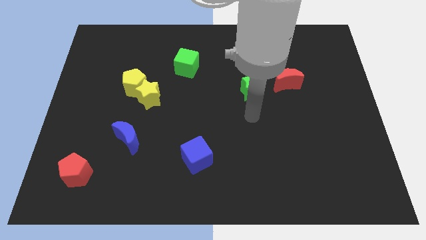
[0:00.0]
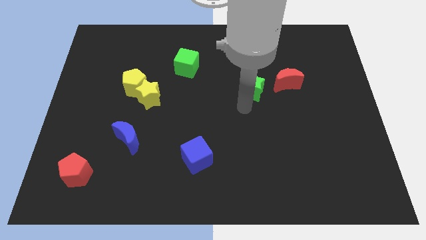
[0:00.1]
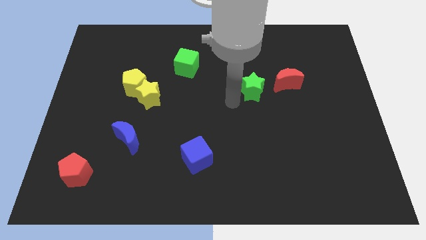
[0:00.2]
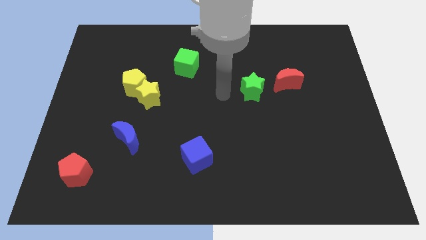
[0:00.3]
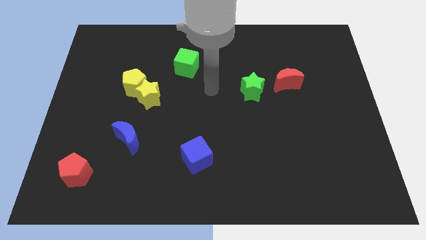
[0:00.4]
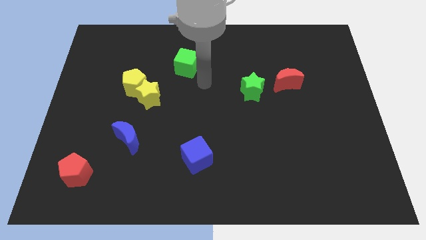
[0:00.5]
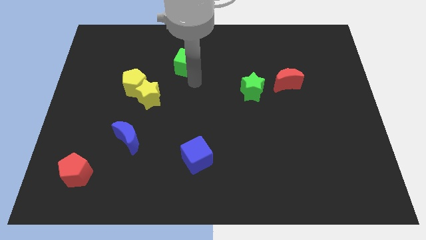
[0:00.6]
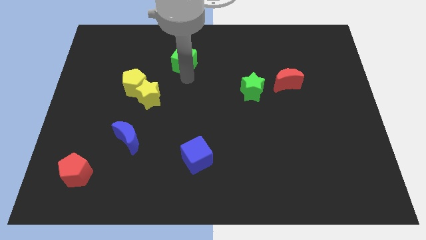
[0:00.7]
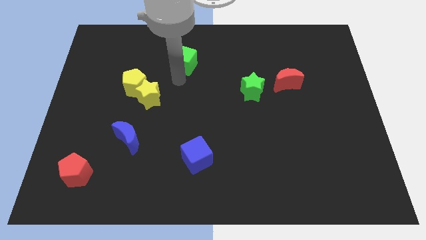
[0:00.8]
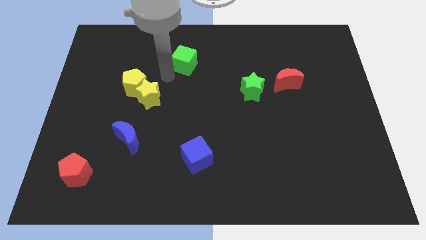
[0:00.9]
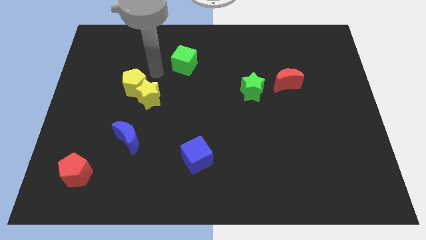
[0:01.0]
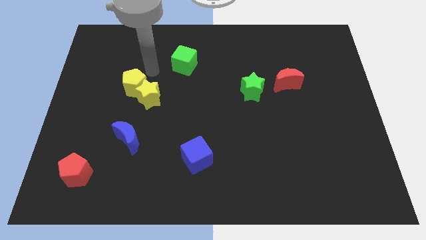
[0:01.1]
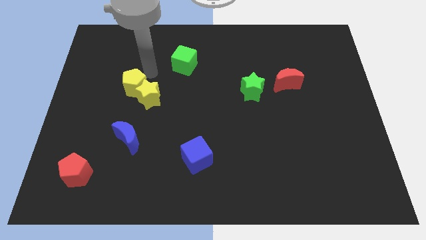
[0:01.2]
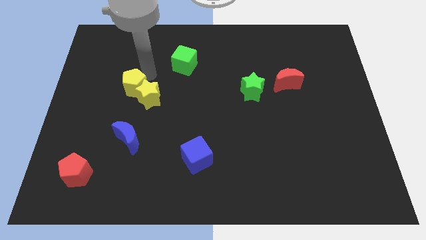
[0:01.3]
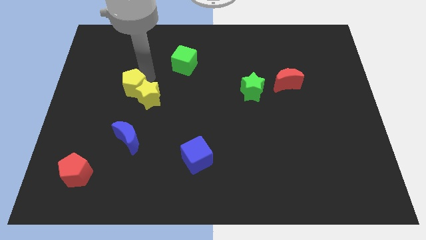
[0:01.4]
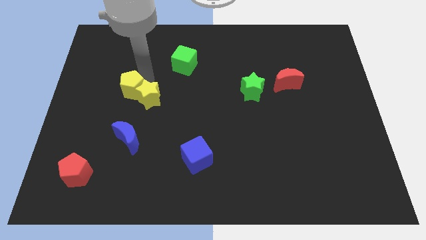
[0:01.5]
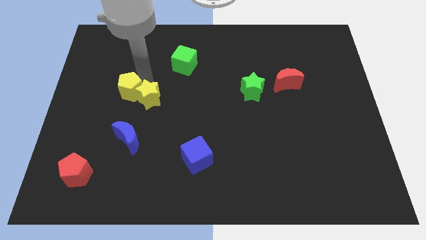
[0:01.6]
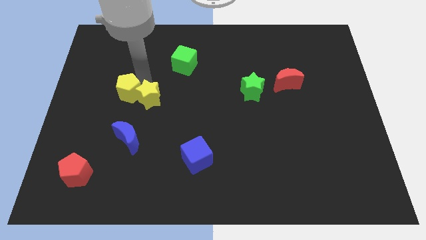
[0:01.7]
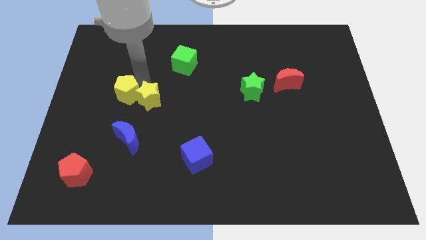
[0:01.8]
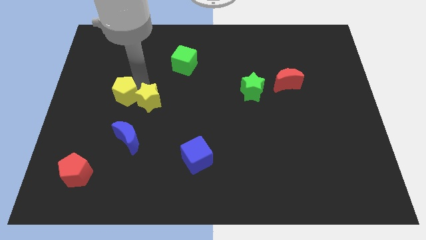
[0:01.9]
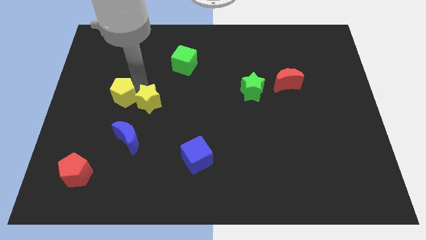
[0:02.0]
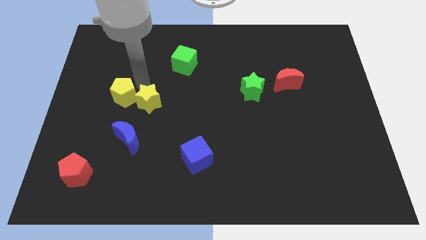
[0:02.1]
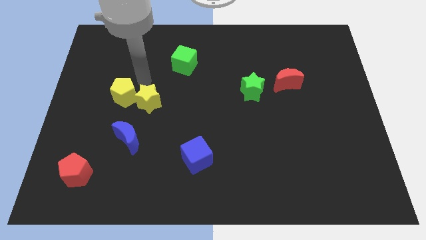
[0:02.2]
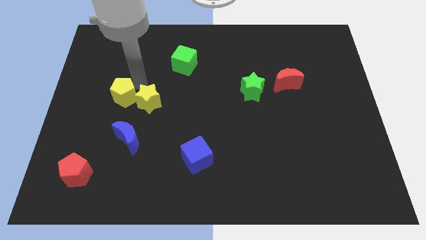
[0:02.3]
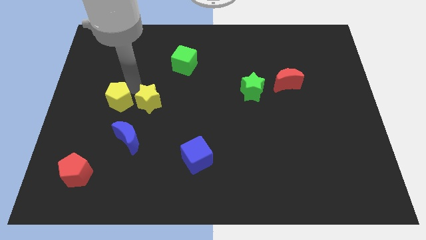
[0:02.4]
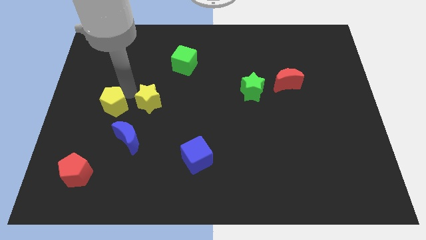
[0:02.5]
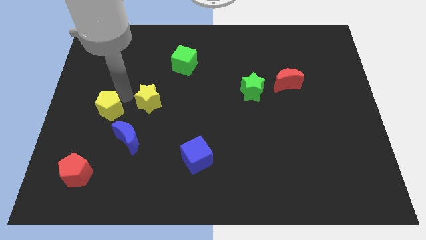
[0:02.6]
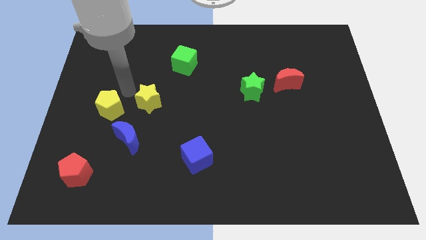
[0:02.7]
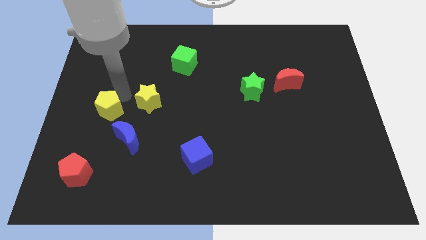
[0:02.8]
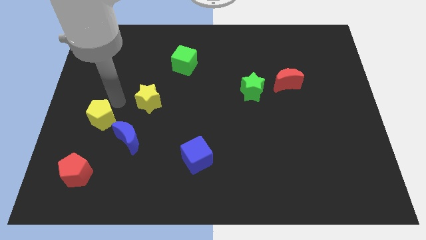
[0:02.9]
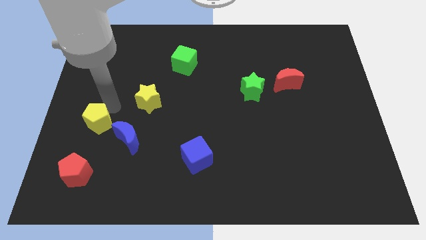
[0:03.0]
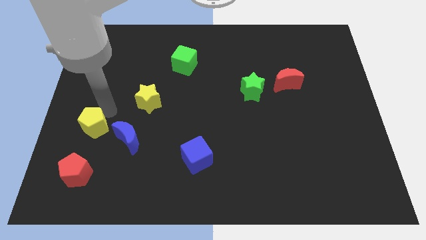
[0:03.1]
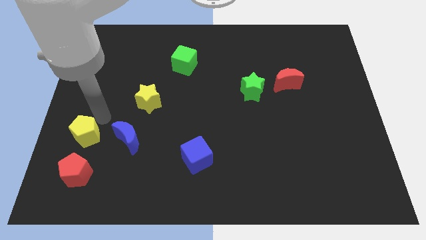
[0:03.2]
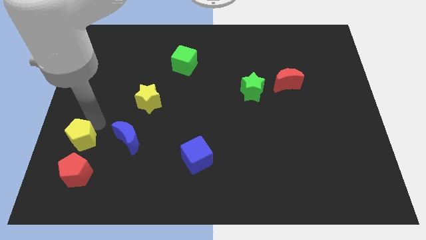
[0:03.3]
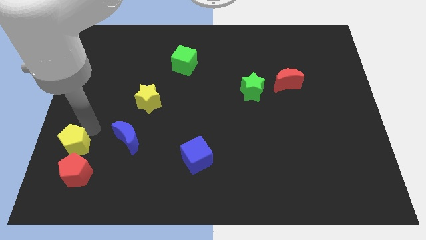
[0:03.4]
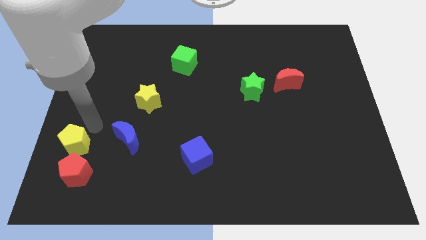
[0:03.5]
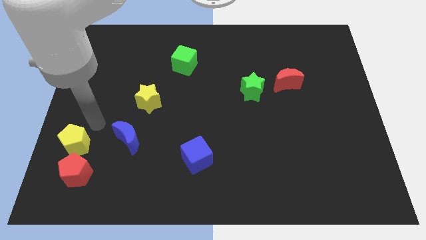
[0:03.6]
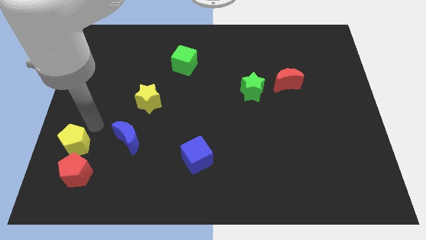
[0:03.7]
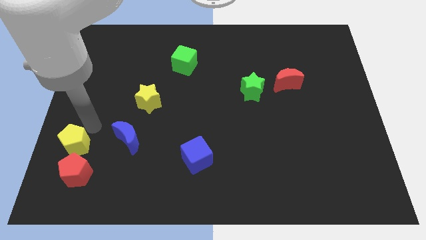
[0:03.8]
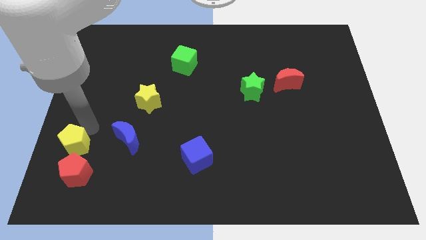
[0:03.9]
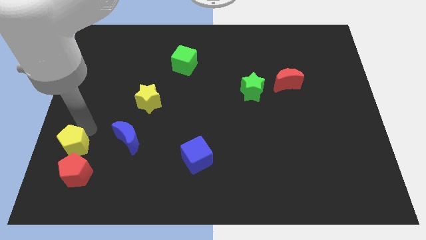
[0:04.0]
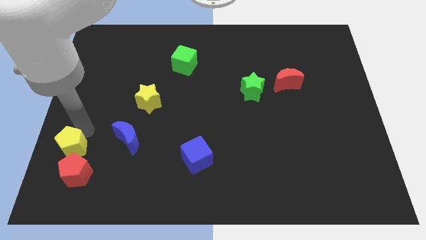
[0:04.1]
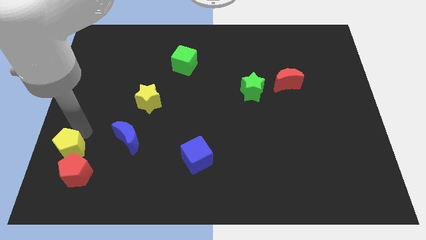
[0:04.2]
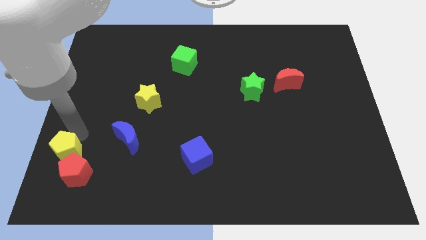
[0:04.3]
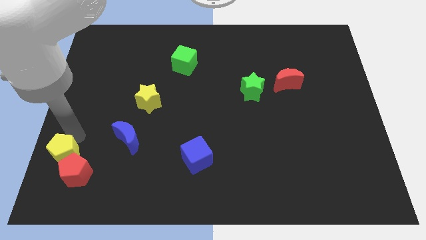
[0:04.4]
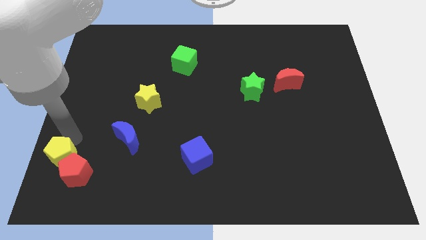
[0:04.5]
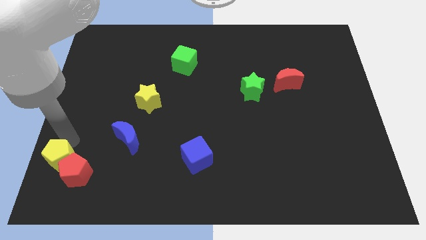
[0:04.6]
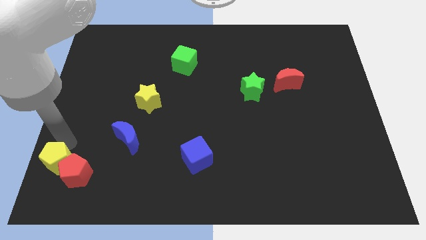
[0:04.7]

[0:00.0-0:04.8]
push the yellow pentagon to the bottom left of the board

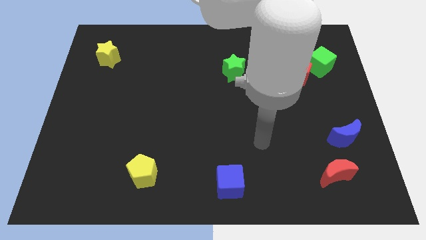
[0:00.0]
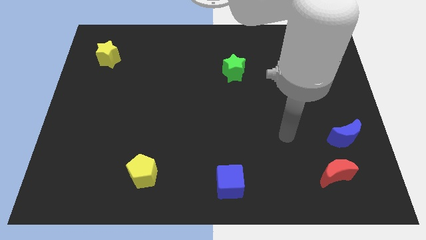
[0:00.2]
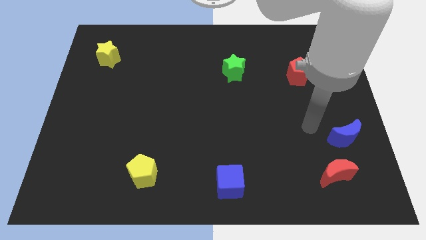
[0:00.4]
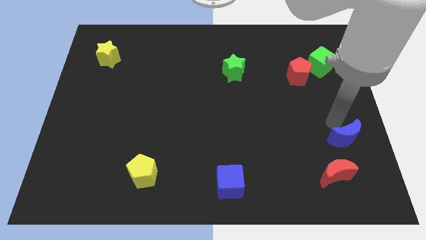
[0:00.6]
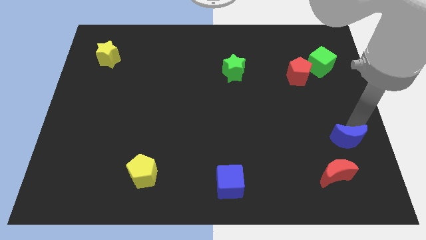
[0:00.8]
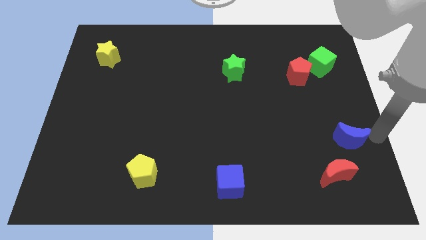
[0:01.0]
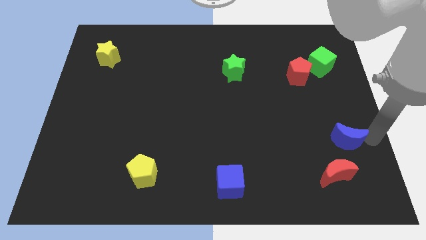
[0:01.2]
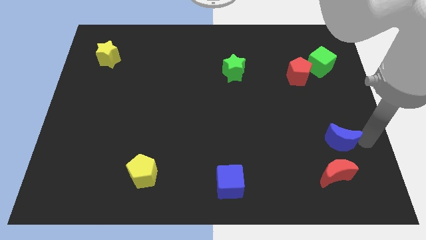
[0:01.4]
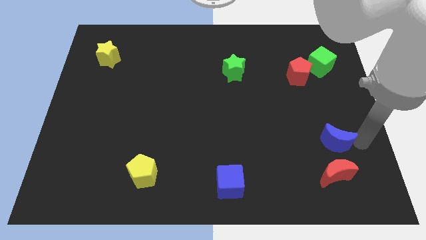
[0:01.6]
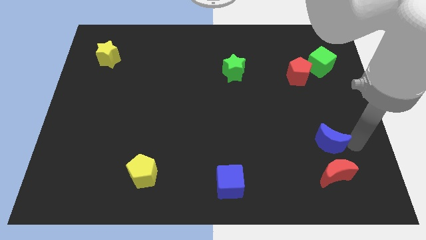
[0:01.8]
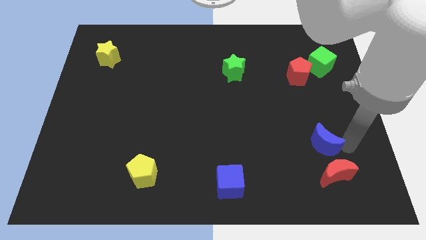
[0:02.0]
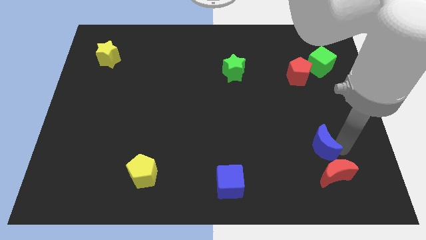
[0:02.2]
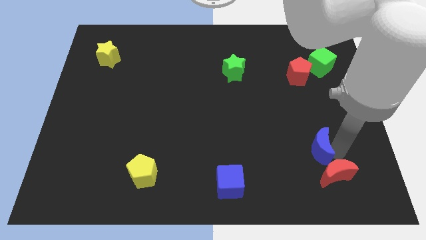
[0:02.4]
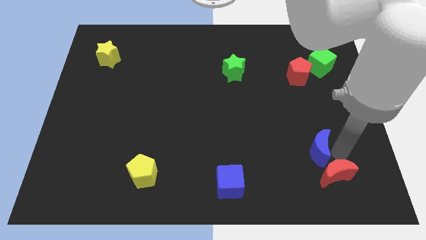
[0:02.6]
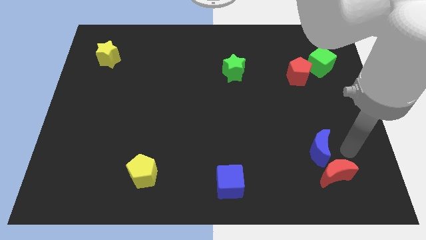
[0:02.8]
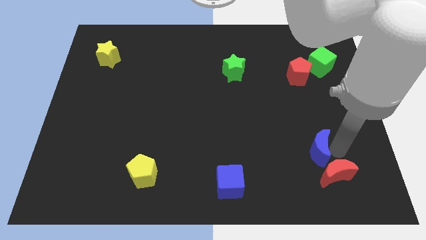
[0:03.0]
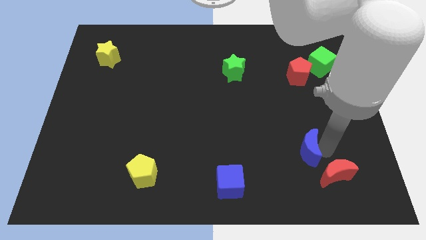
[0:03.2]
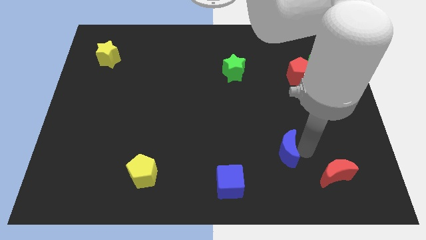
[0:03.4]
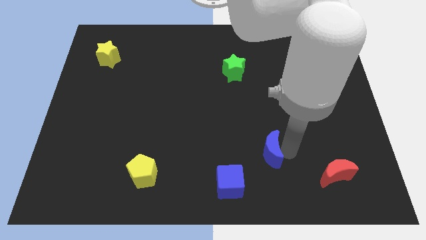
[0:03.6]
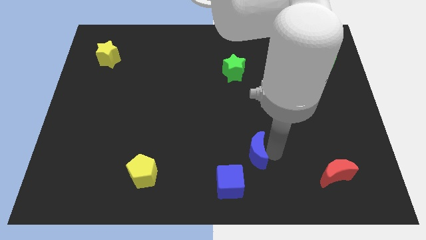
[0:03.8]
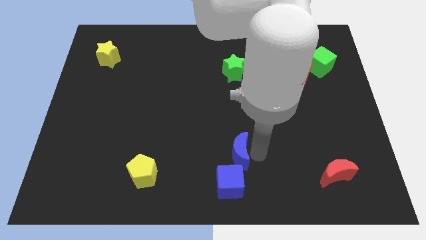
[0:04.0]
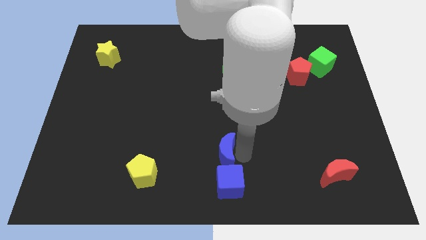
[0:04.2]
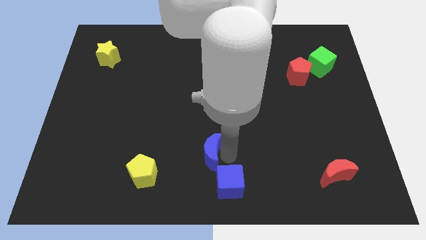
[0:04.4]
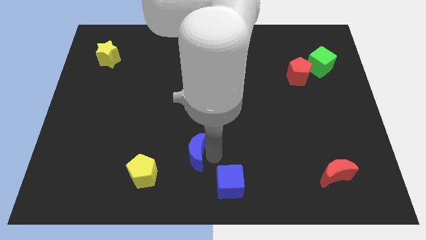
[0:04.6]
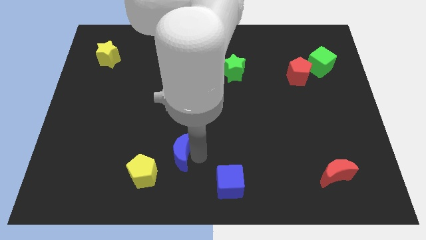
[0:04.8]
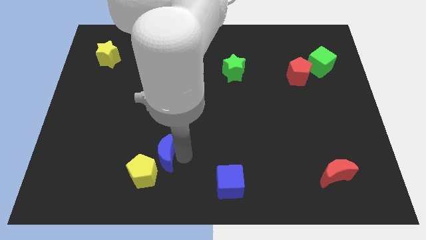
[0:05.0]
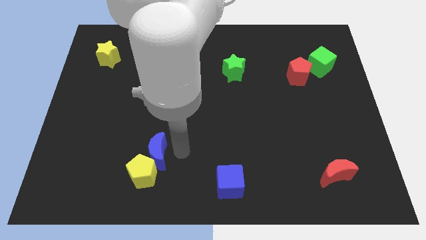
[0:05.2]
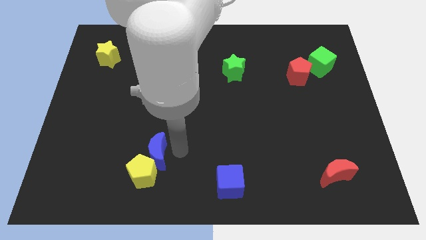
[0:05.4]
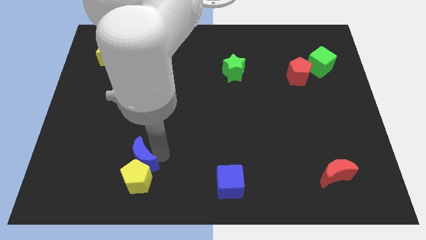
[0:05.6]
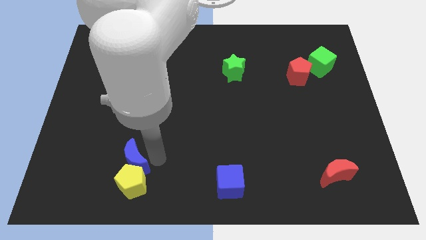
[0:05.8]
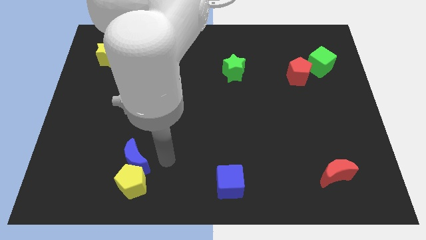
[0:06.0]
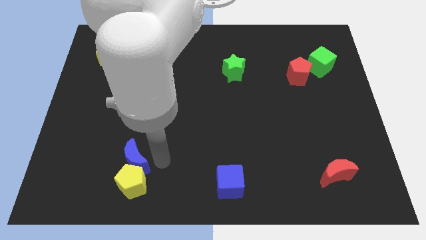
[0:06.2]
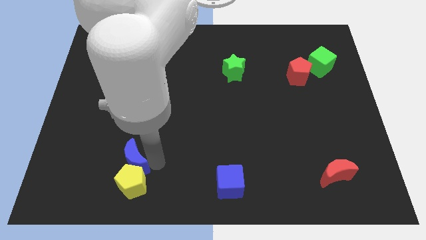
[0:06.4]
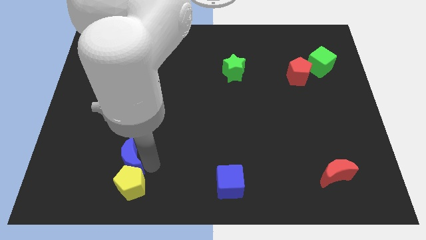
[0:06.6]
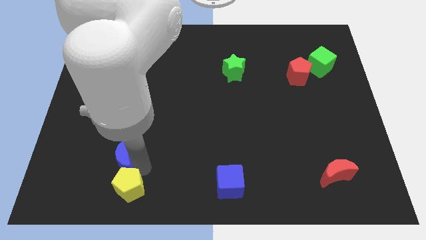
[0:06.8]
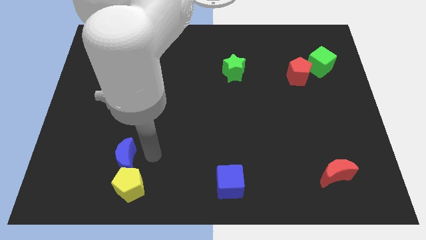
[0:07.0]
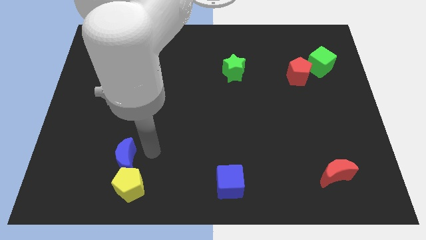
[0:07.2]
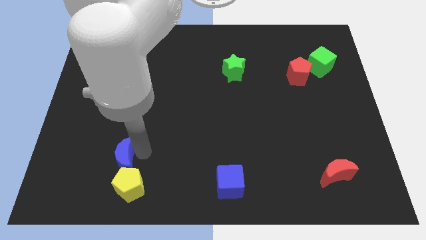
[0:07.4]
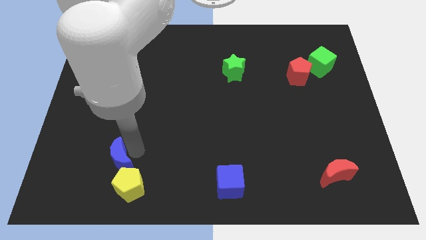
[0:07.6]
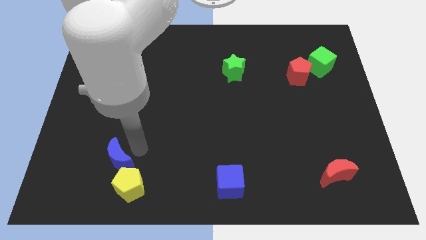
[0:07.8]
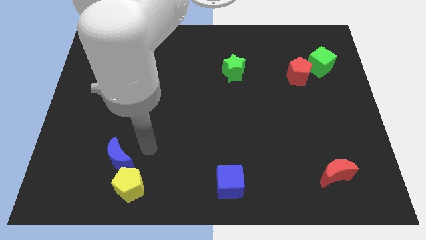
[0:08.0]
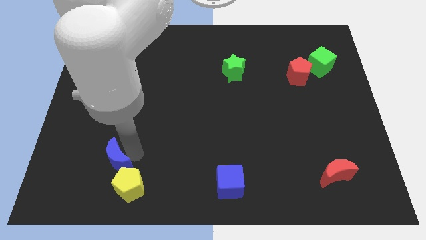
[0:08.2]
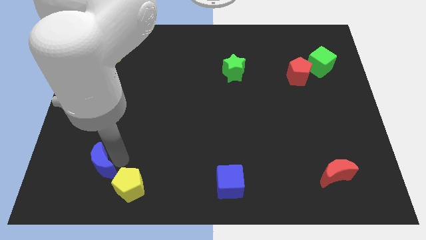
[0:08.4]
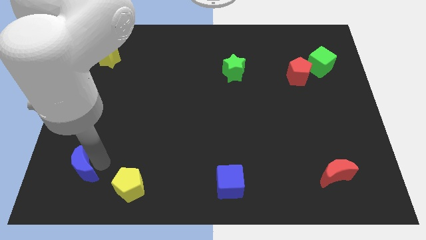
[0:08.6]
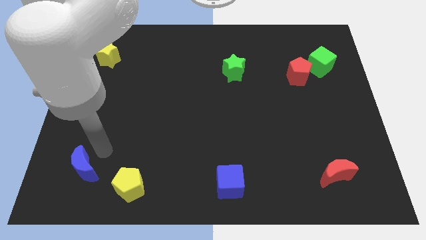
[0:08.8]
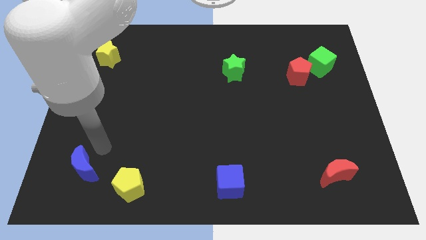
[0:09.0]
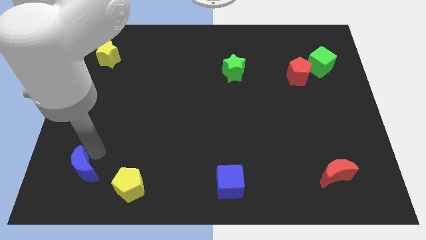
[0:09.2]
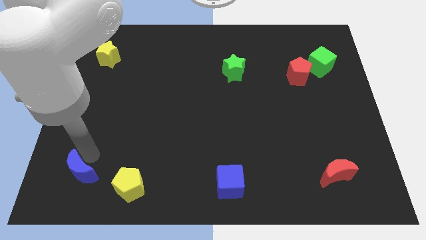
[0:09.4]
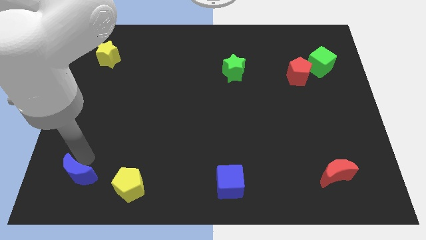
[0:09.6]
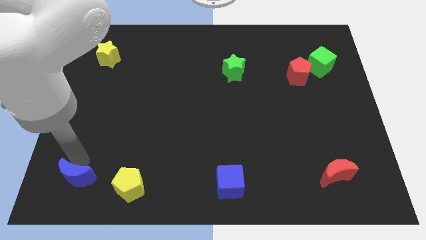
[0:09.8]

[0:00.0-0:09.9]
move the blue moon to the lower left corner
